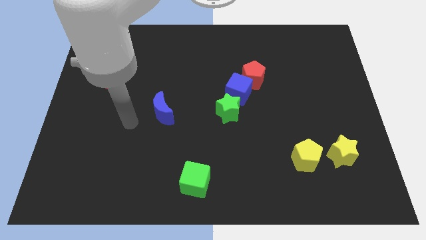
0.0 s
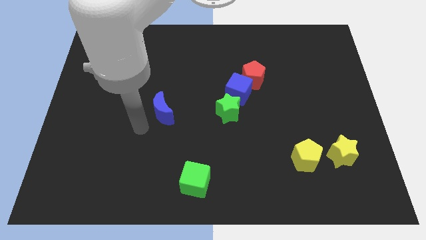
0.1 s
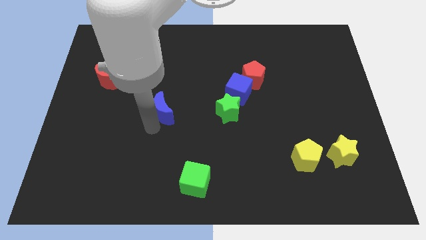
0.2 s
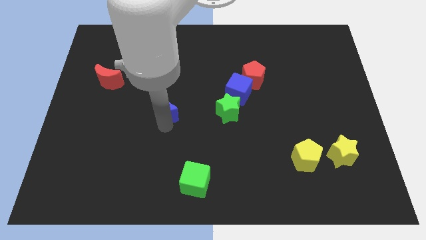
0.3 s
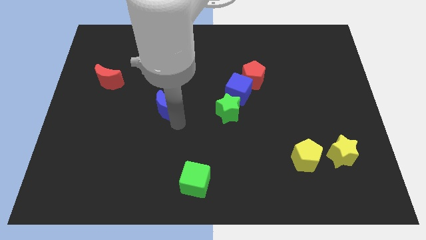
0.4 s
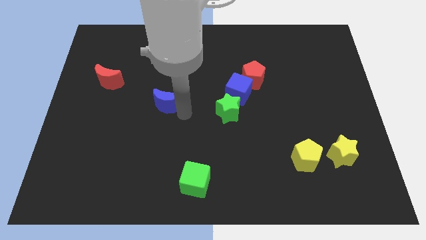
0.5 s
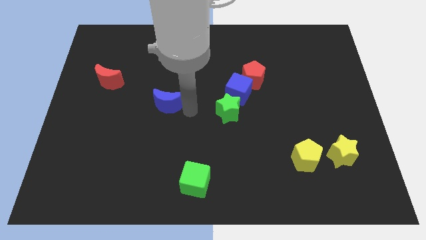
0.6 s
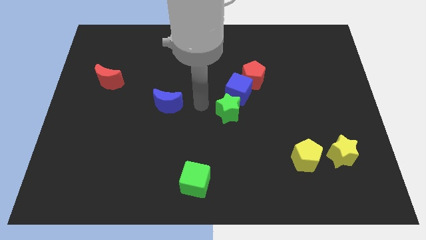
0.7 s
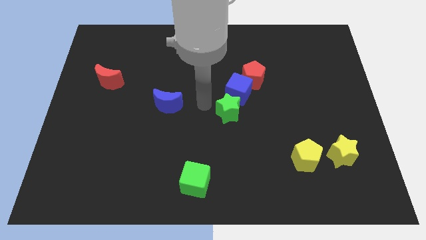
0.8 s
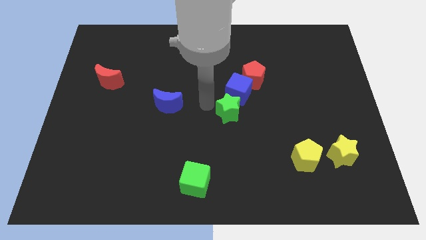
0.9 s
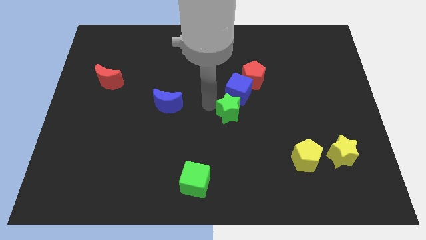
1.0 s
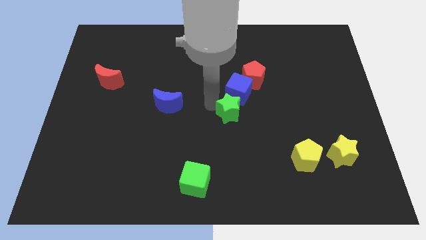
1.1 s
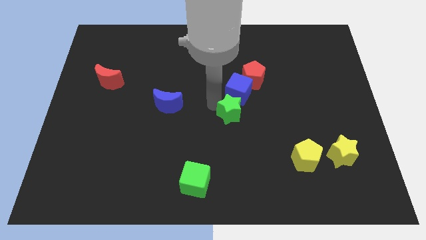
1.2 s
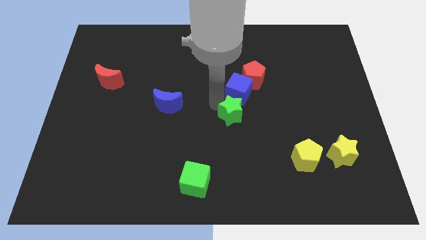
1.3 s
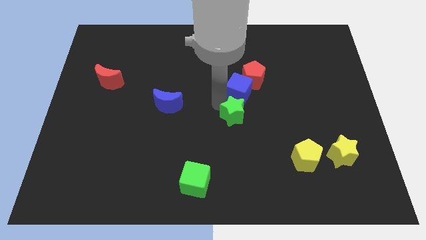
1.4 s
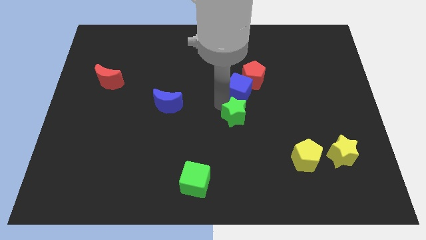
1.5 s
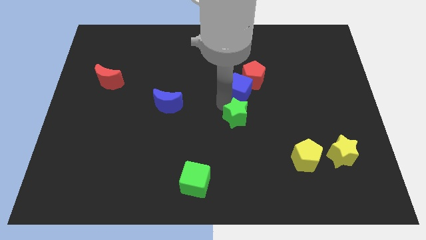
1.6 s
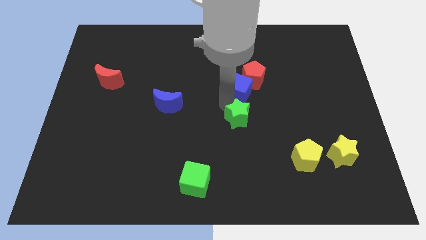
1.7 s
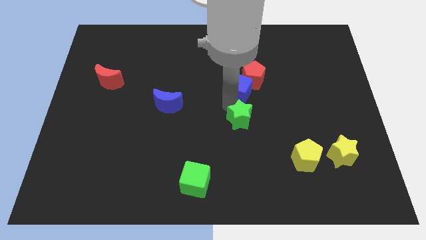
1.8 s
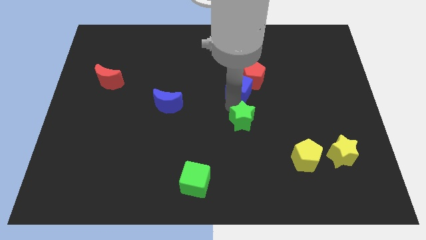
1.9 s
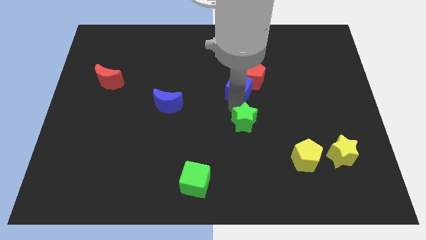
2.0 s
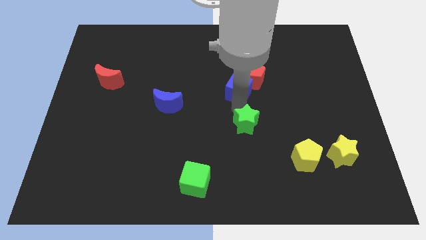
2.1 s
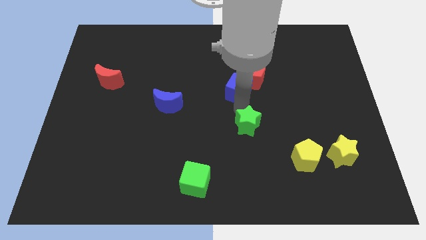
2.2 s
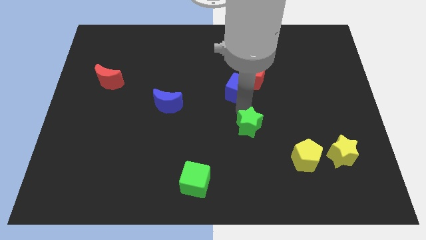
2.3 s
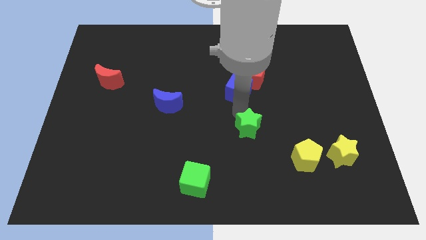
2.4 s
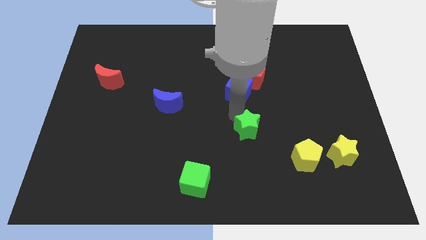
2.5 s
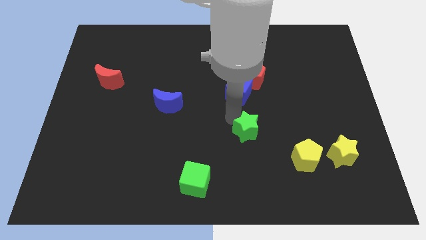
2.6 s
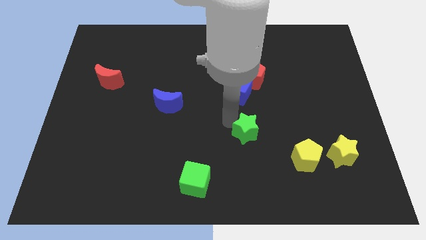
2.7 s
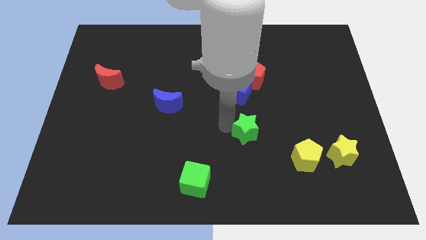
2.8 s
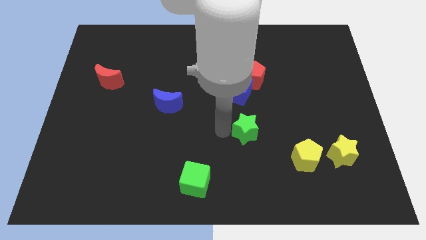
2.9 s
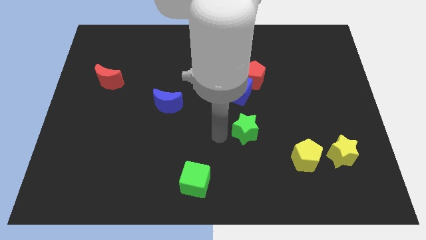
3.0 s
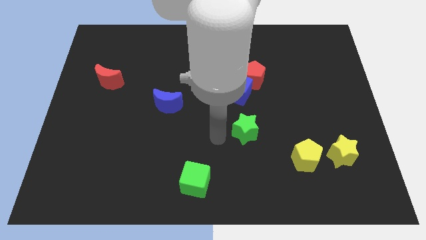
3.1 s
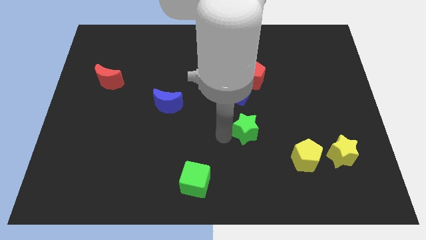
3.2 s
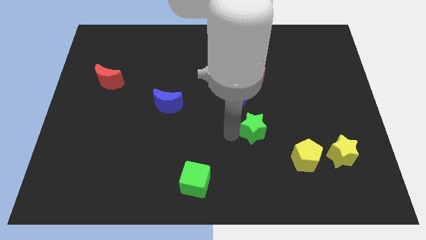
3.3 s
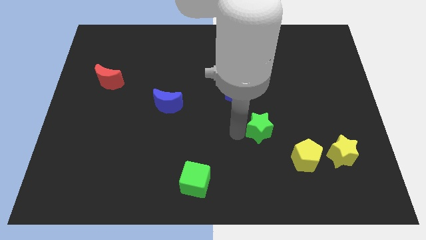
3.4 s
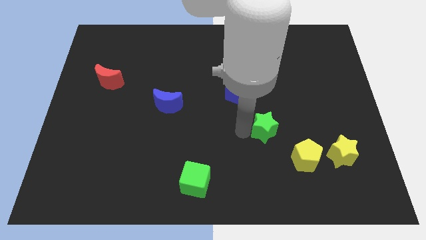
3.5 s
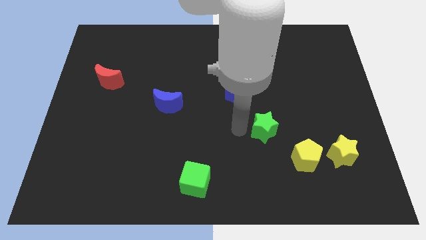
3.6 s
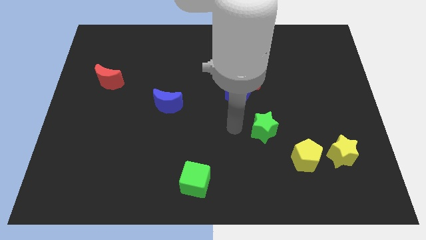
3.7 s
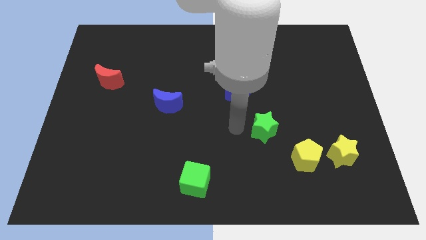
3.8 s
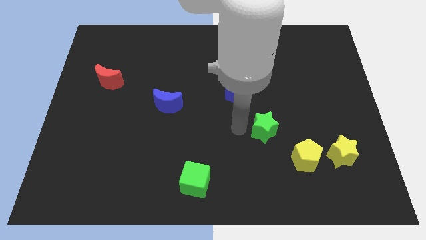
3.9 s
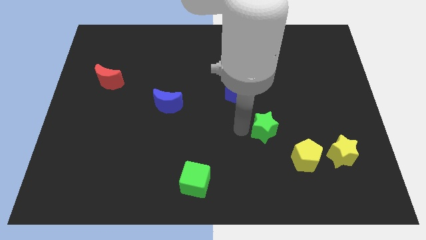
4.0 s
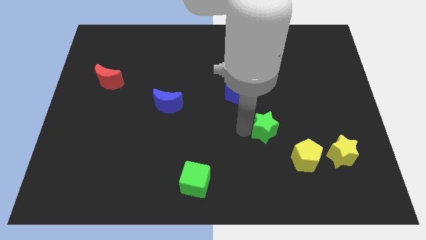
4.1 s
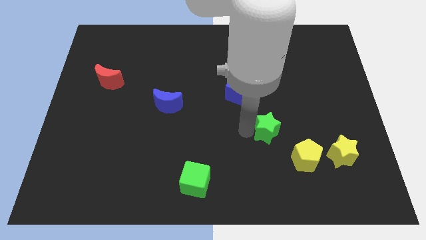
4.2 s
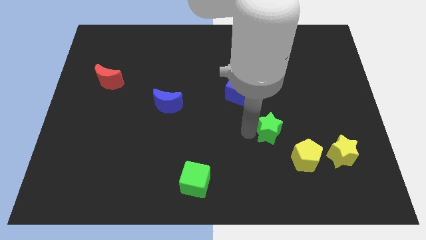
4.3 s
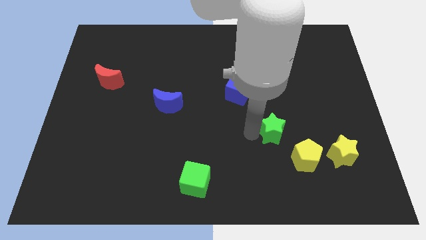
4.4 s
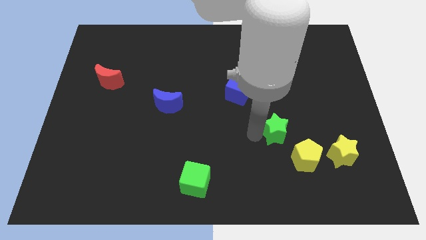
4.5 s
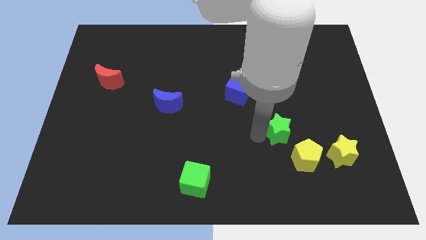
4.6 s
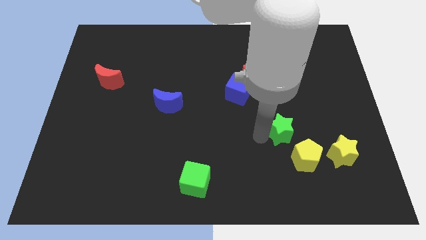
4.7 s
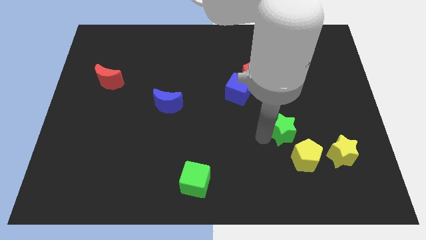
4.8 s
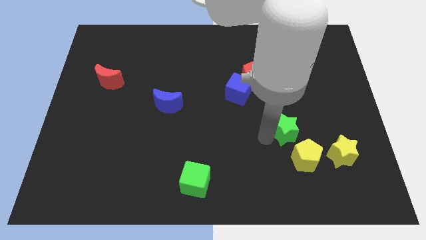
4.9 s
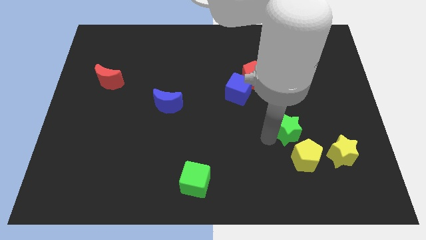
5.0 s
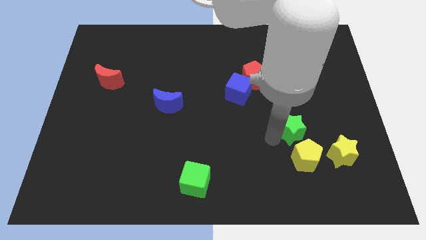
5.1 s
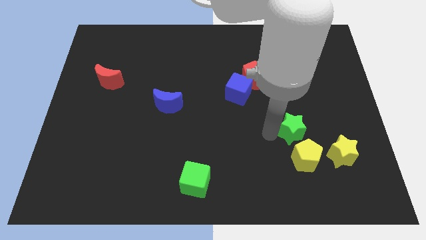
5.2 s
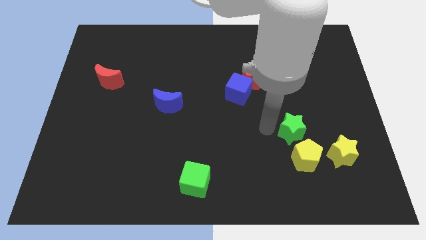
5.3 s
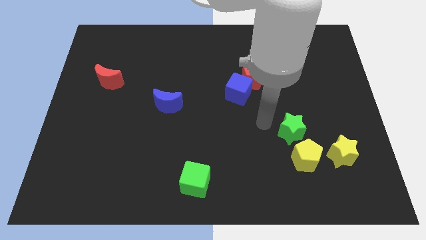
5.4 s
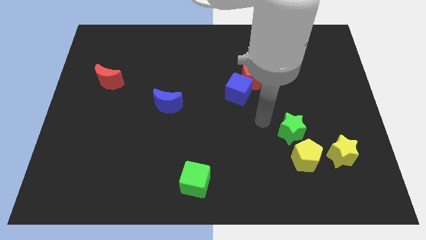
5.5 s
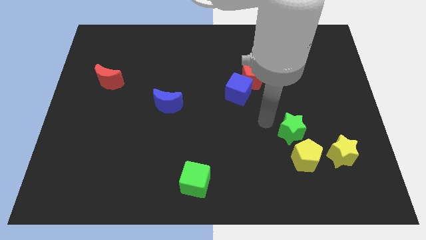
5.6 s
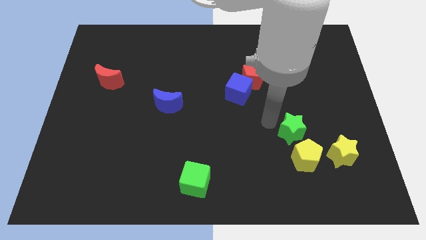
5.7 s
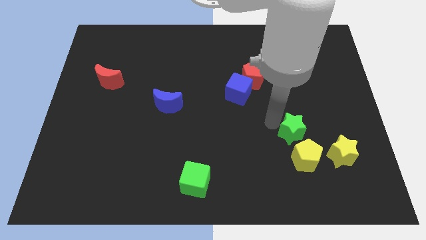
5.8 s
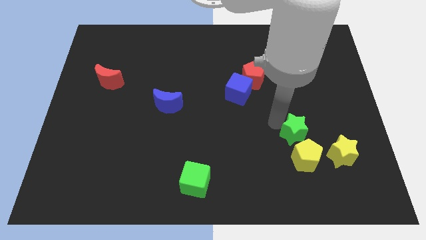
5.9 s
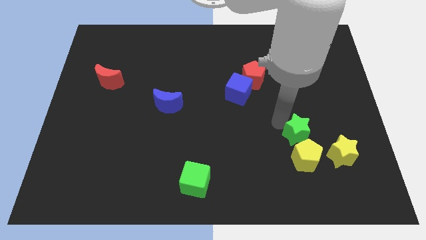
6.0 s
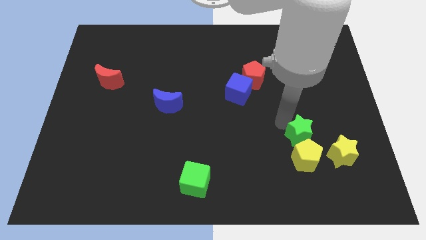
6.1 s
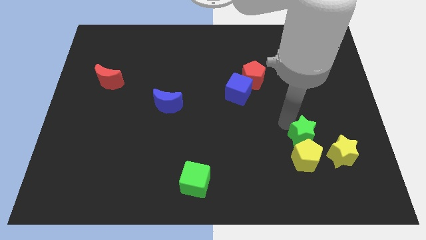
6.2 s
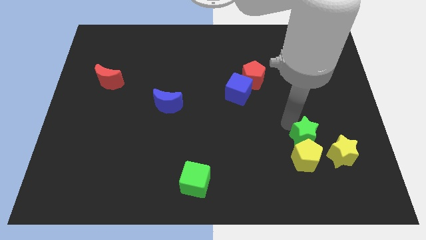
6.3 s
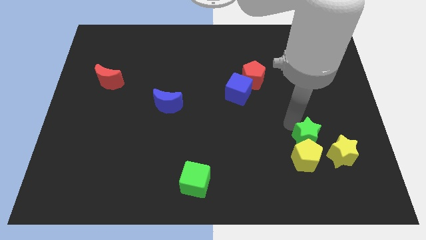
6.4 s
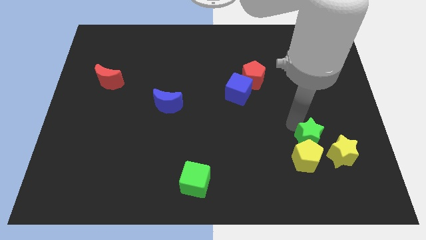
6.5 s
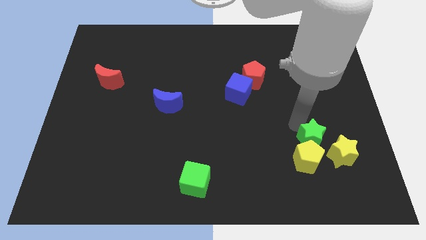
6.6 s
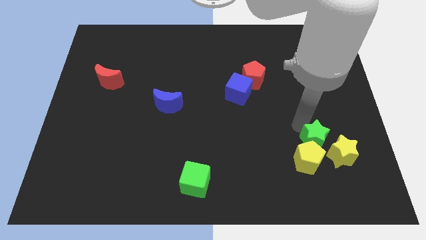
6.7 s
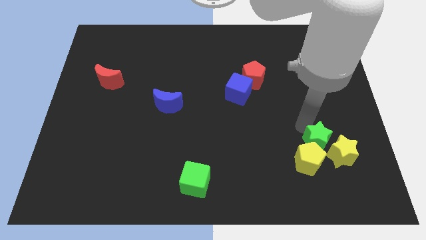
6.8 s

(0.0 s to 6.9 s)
put the green star next to the yellow star

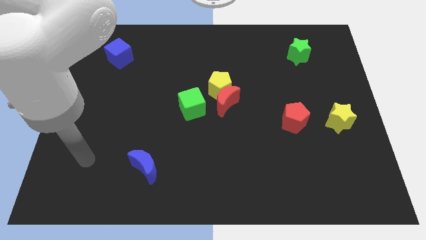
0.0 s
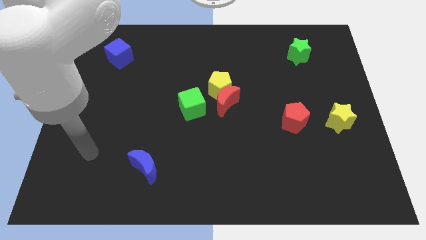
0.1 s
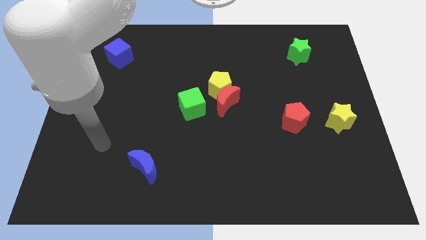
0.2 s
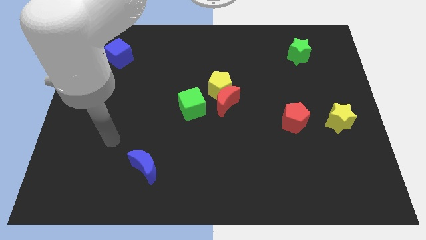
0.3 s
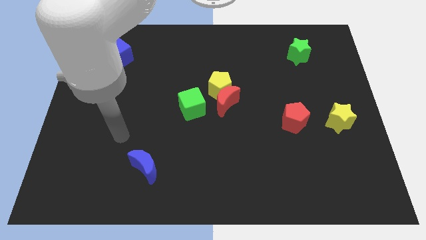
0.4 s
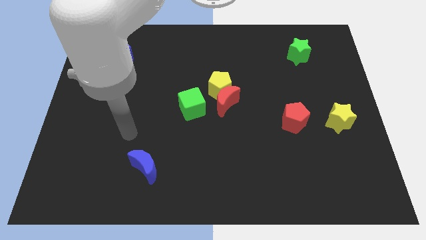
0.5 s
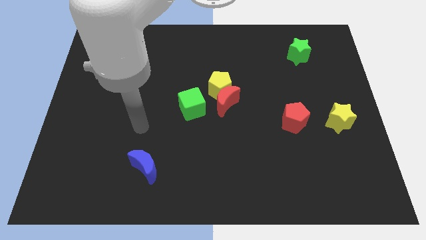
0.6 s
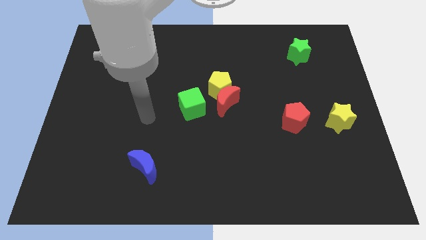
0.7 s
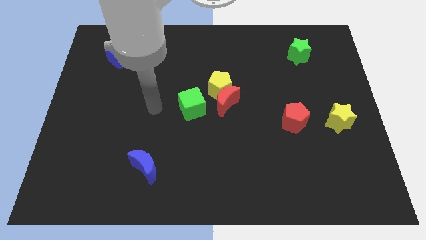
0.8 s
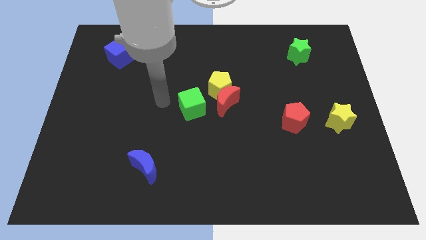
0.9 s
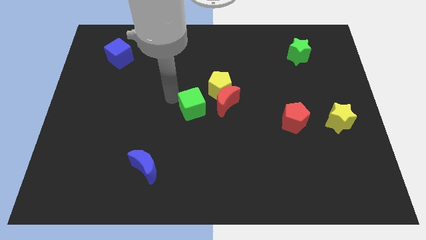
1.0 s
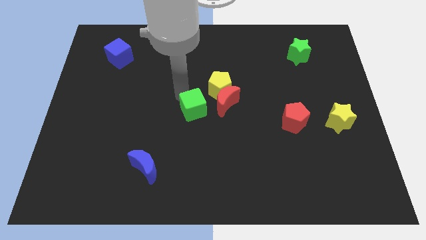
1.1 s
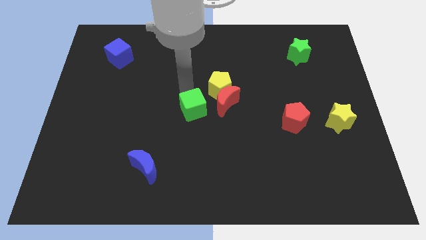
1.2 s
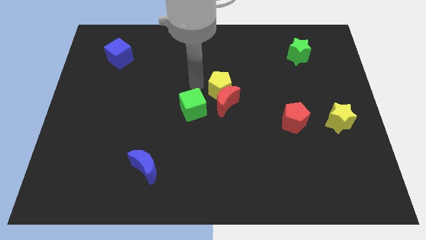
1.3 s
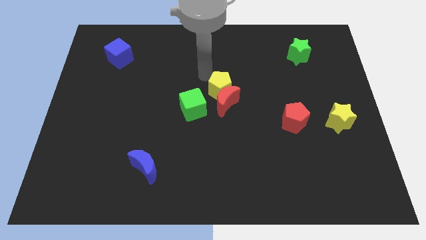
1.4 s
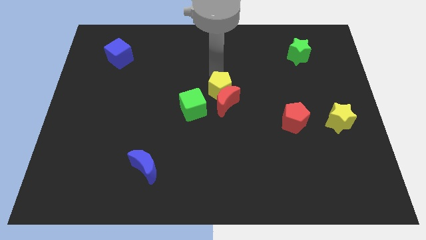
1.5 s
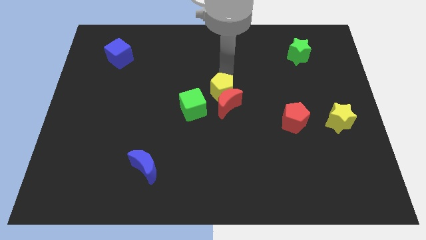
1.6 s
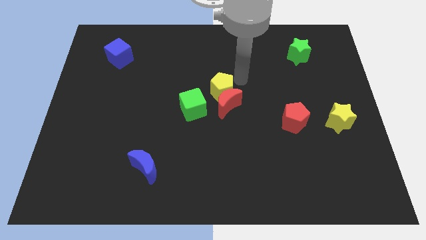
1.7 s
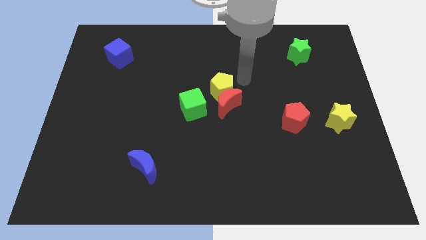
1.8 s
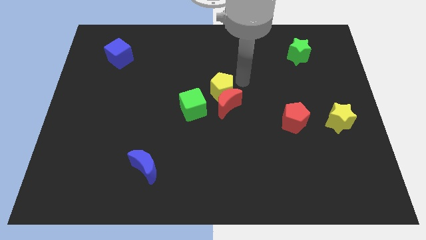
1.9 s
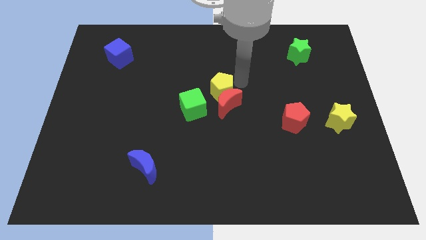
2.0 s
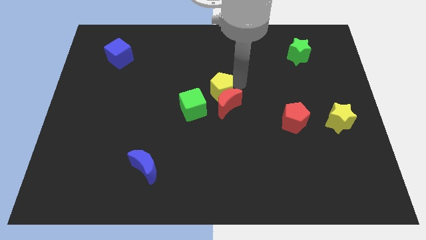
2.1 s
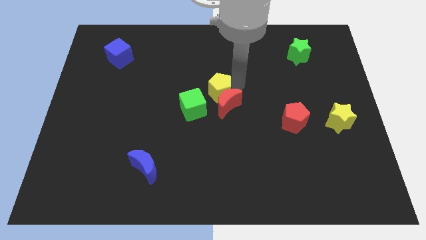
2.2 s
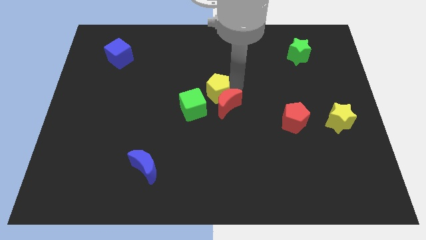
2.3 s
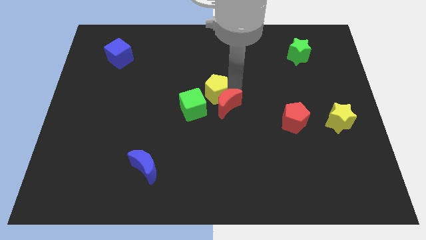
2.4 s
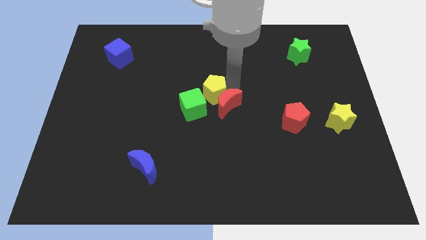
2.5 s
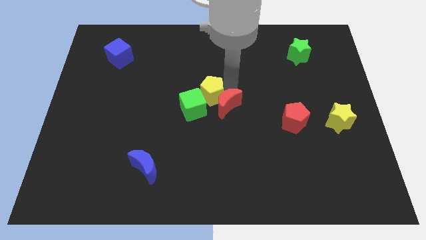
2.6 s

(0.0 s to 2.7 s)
push the yellow pentagon next to the green cube
